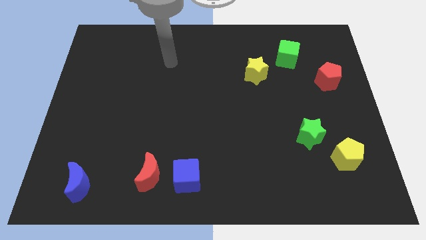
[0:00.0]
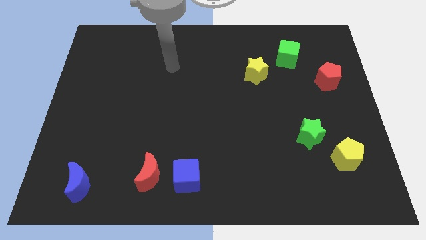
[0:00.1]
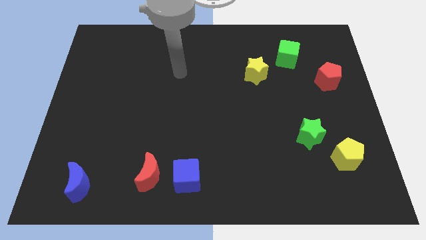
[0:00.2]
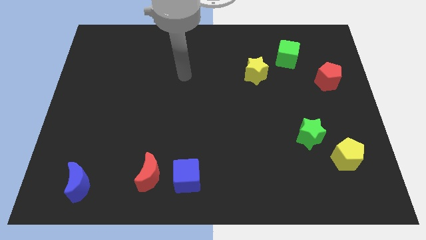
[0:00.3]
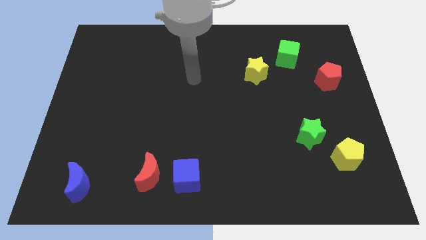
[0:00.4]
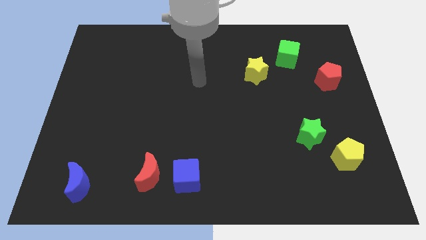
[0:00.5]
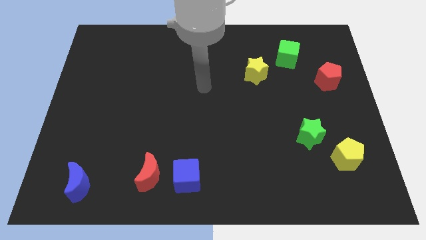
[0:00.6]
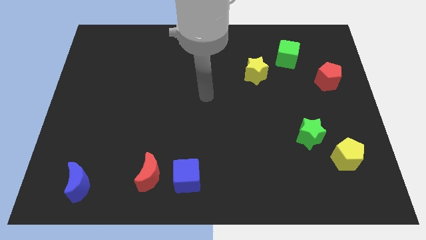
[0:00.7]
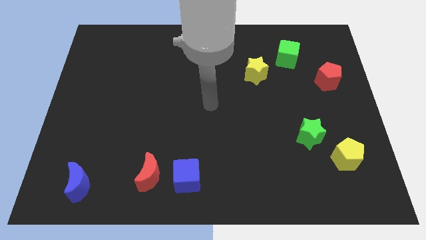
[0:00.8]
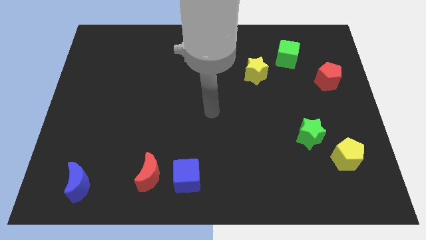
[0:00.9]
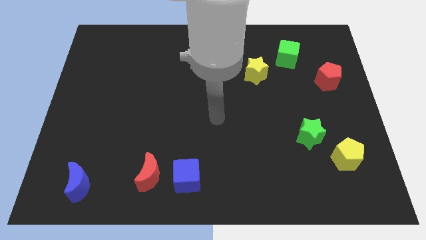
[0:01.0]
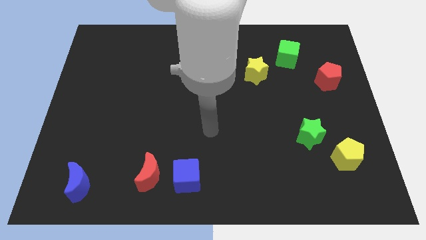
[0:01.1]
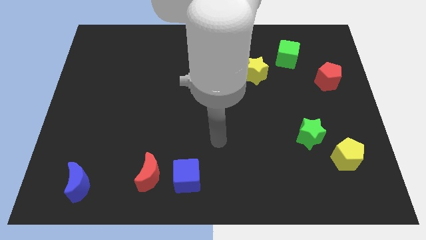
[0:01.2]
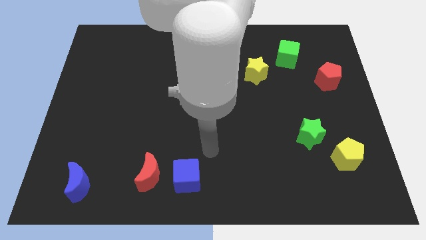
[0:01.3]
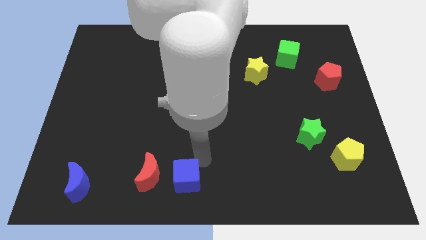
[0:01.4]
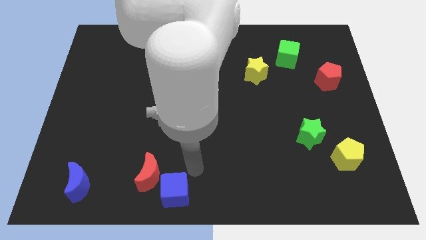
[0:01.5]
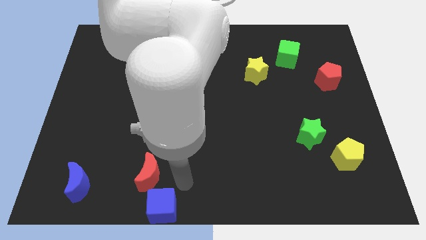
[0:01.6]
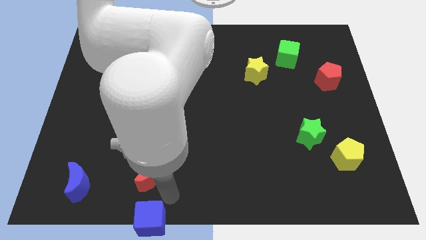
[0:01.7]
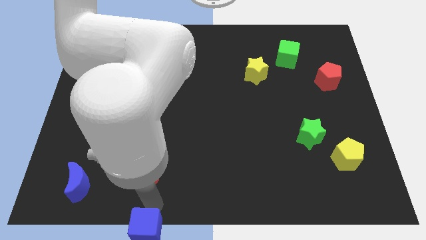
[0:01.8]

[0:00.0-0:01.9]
move the red moon away from the blue cube

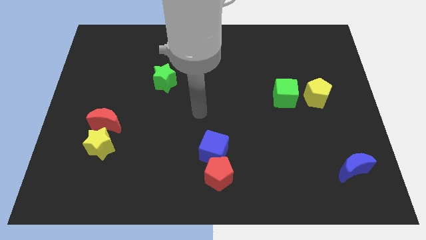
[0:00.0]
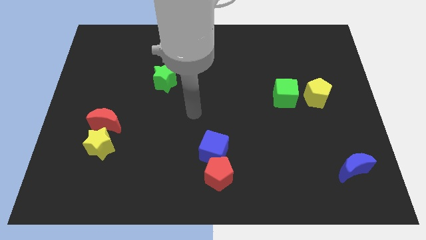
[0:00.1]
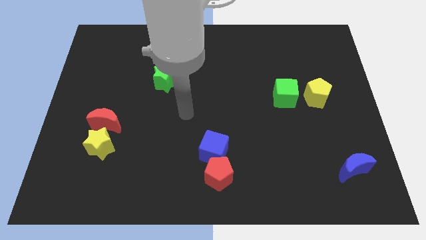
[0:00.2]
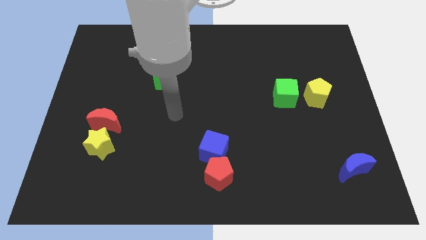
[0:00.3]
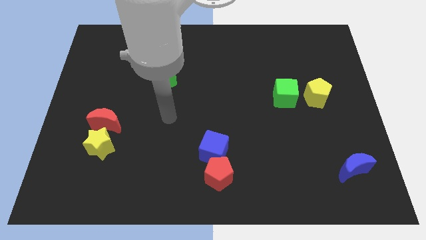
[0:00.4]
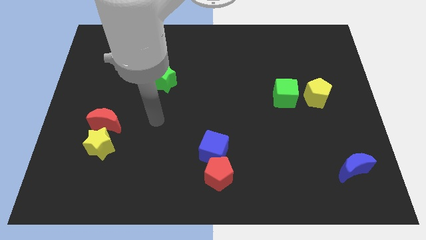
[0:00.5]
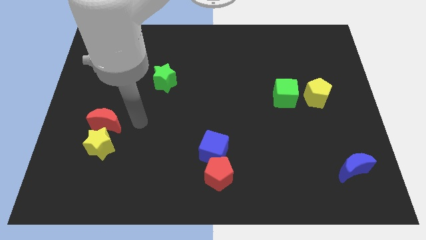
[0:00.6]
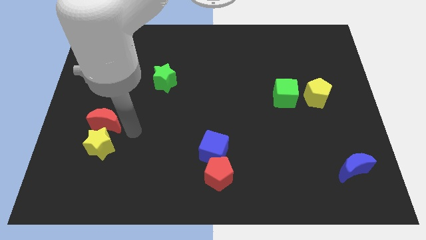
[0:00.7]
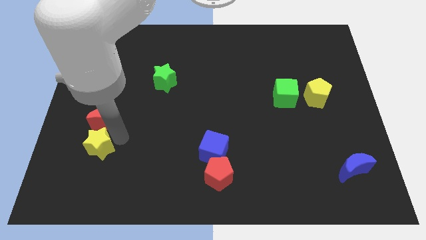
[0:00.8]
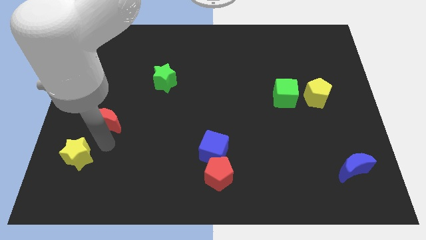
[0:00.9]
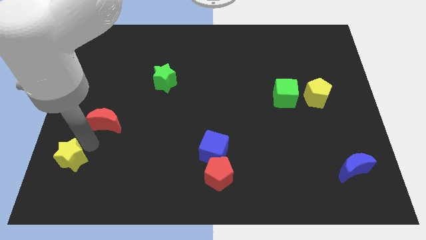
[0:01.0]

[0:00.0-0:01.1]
move the red moon away from the yellow star

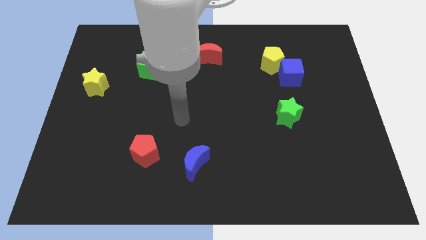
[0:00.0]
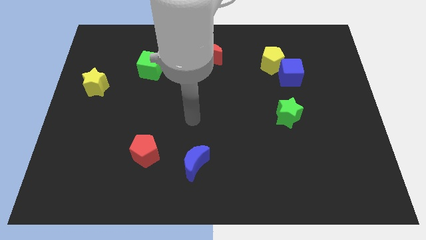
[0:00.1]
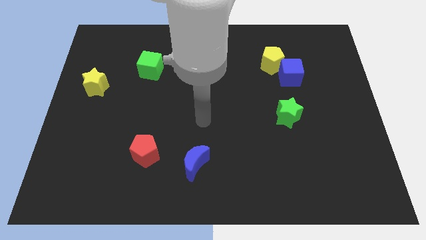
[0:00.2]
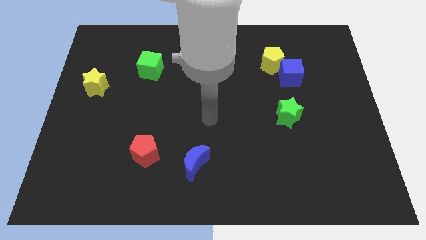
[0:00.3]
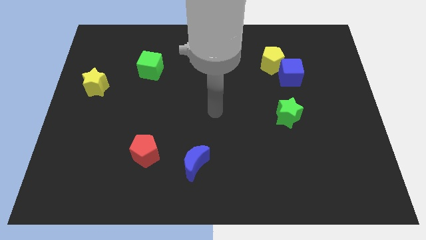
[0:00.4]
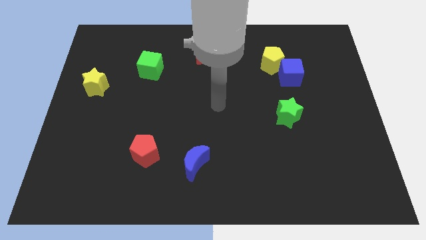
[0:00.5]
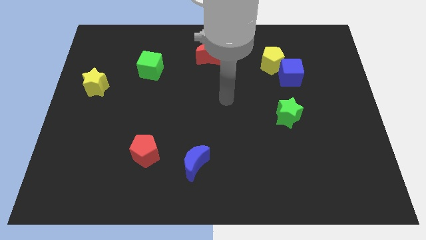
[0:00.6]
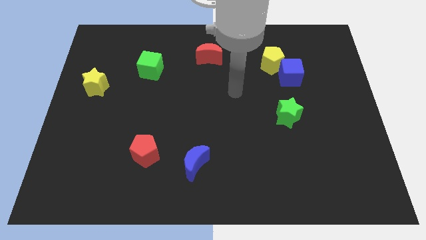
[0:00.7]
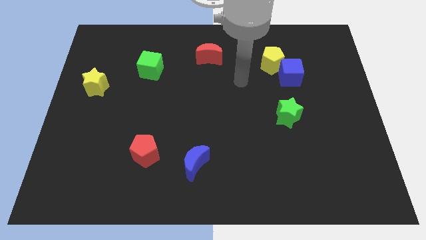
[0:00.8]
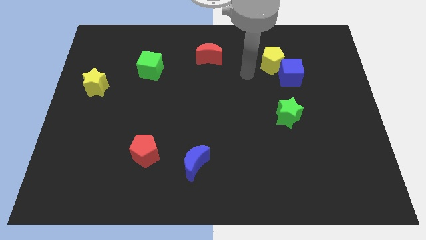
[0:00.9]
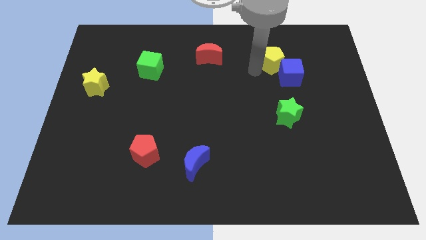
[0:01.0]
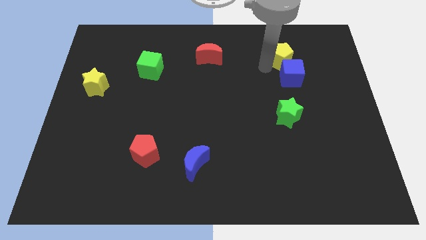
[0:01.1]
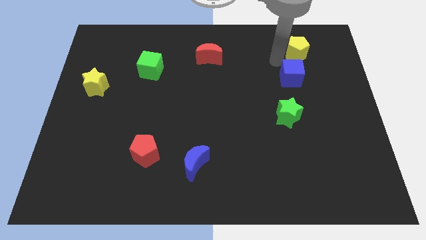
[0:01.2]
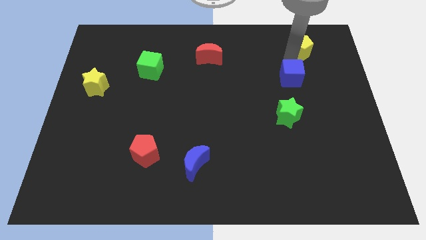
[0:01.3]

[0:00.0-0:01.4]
move the blue cube away from the yellow pentagon

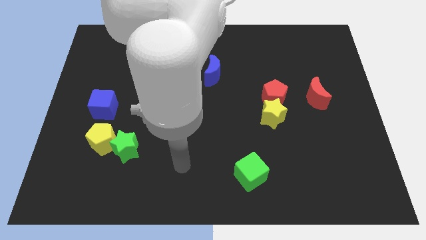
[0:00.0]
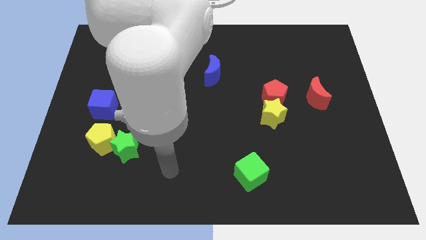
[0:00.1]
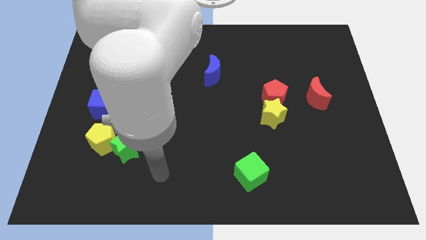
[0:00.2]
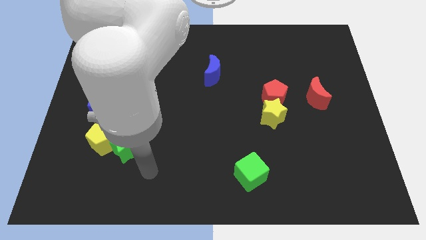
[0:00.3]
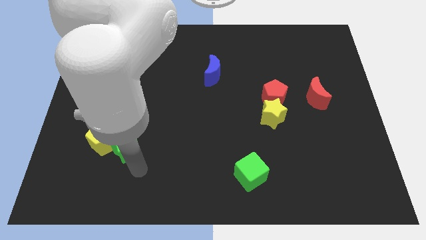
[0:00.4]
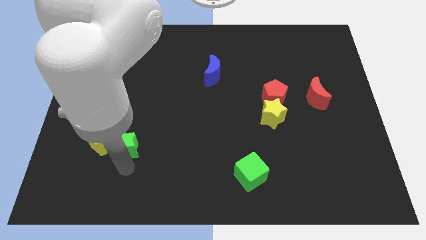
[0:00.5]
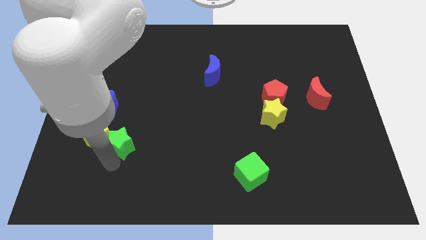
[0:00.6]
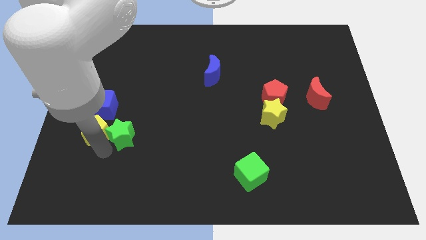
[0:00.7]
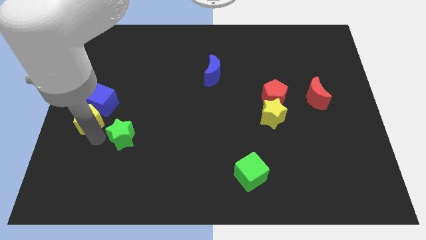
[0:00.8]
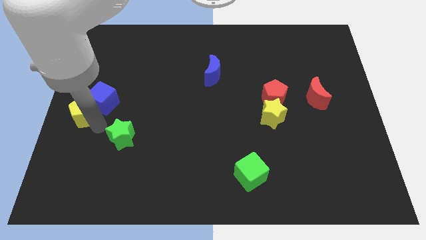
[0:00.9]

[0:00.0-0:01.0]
separate the green star from the yellow pentagon

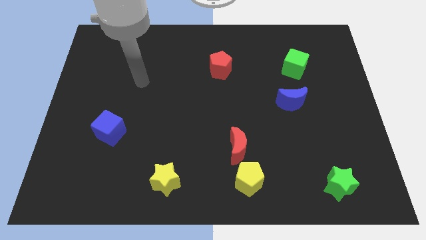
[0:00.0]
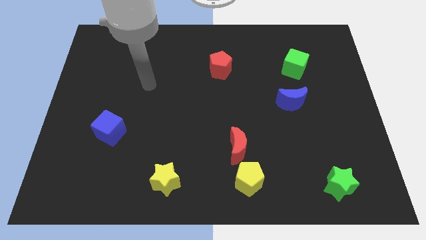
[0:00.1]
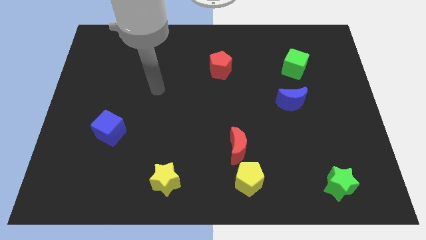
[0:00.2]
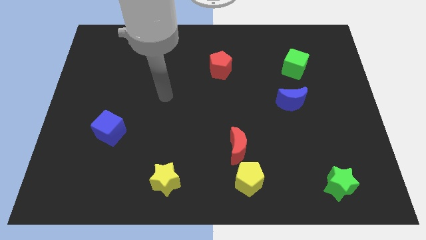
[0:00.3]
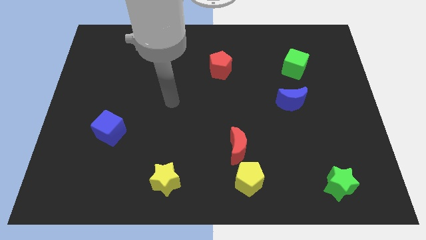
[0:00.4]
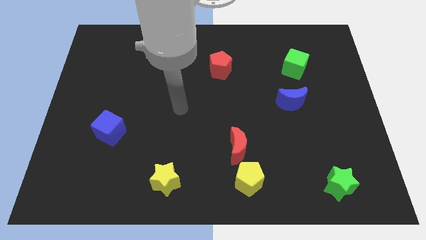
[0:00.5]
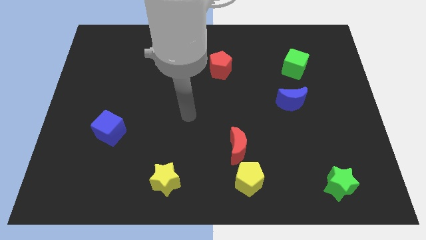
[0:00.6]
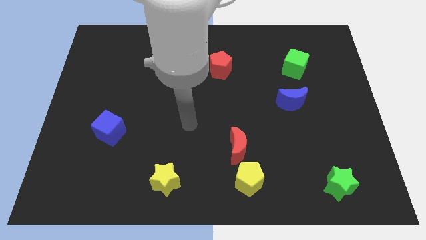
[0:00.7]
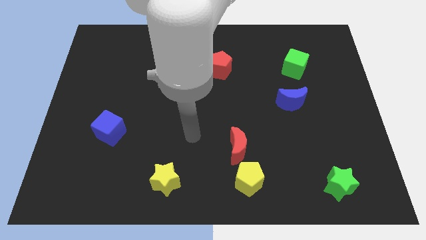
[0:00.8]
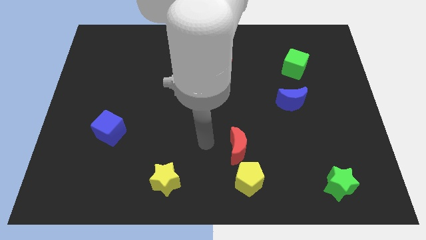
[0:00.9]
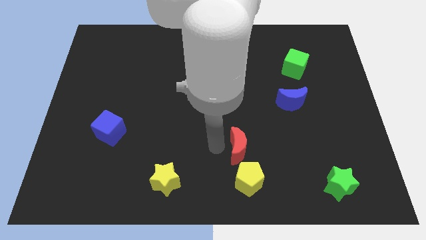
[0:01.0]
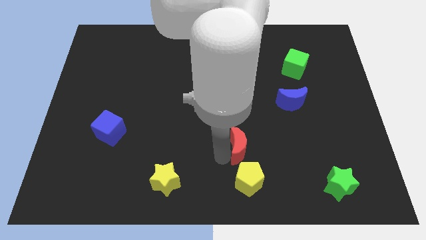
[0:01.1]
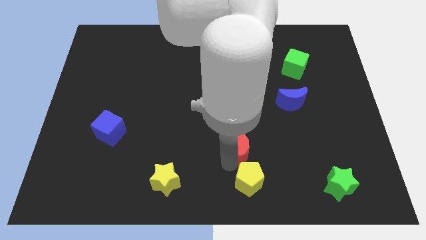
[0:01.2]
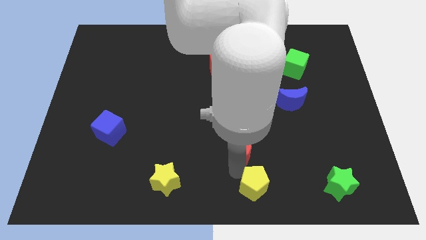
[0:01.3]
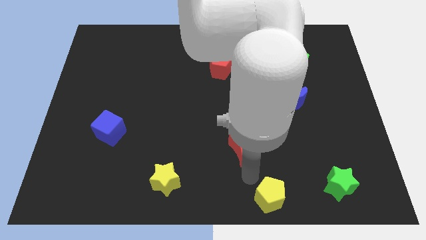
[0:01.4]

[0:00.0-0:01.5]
move the red moon away from the yellow pentagon

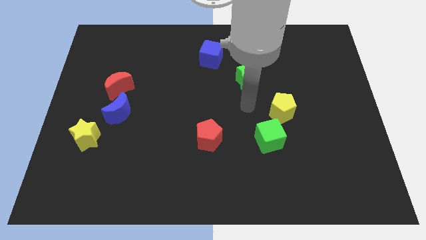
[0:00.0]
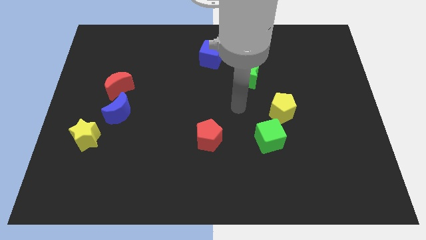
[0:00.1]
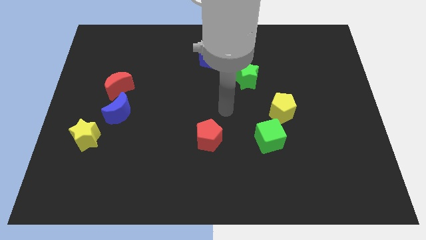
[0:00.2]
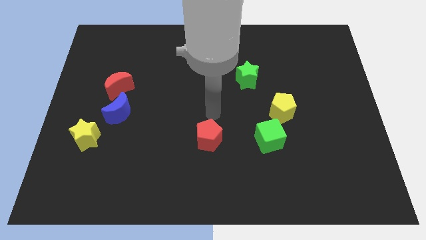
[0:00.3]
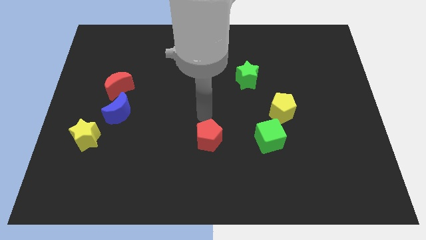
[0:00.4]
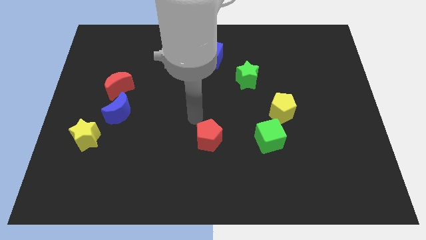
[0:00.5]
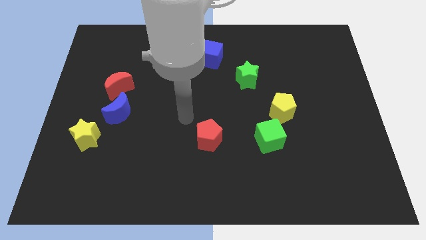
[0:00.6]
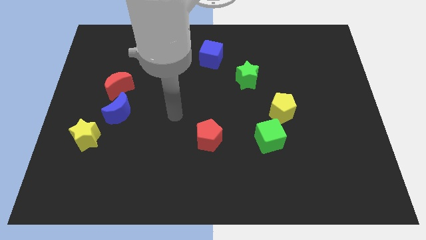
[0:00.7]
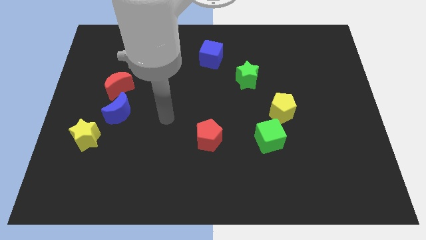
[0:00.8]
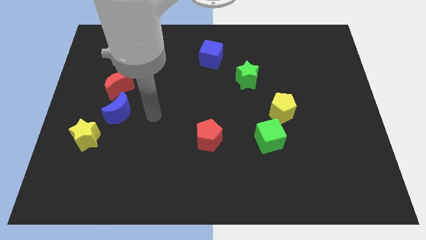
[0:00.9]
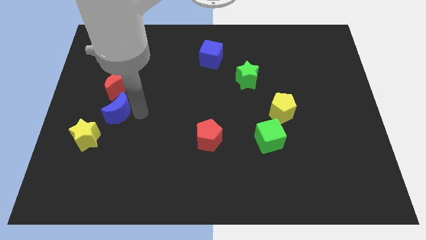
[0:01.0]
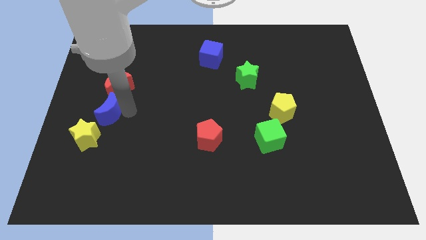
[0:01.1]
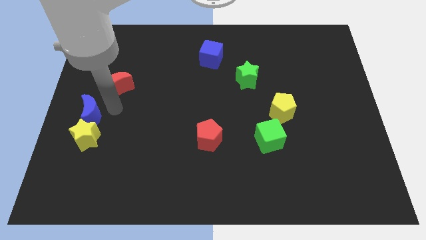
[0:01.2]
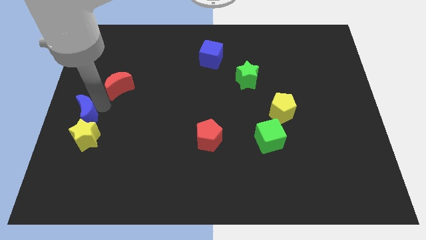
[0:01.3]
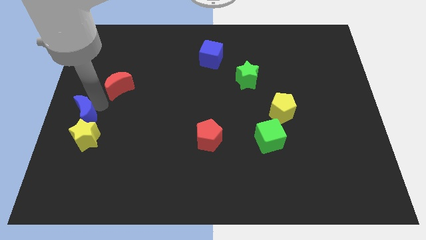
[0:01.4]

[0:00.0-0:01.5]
separate the red moon from the blue moon

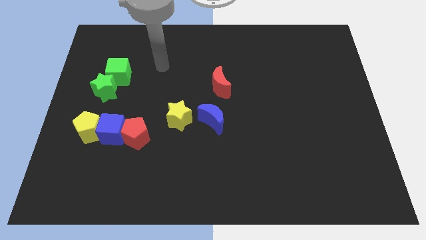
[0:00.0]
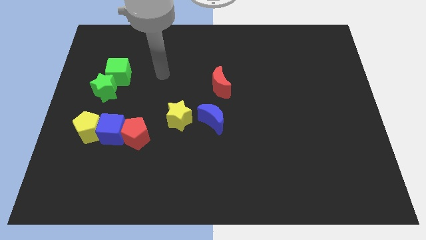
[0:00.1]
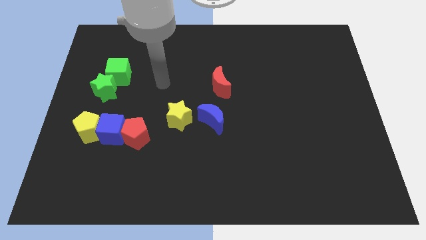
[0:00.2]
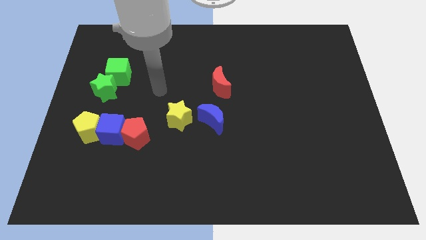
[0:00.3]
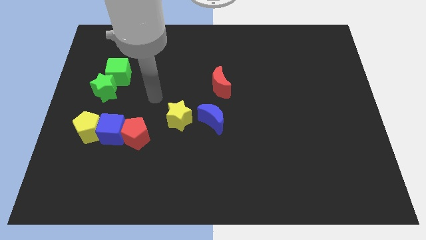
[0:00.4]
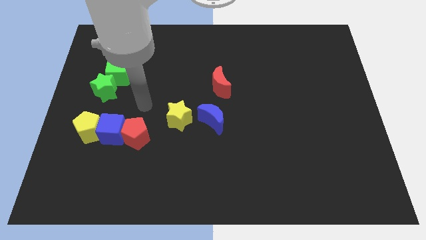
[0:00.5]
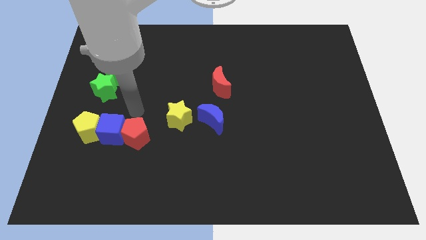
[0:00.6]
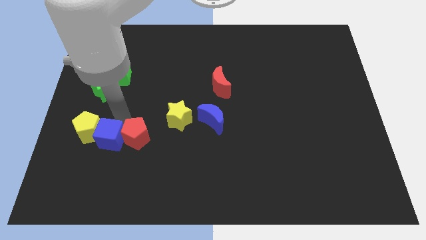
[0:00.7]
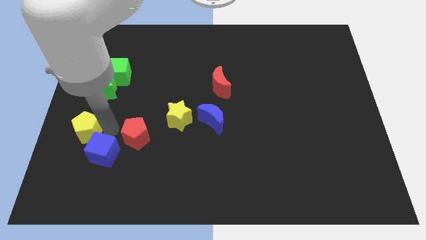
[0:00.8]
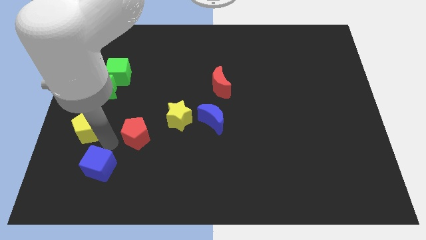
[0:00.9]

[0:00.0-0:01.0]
separate the red pentagon from the blue cube
